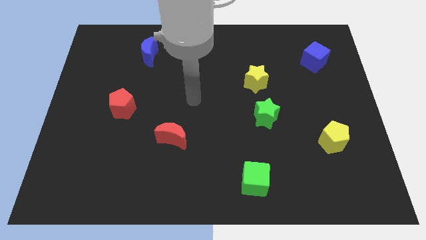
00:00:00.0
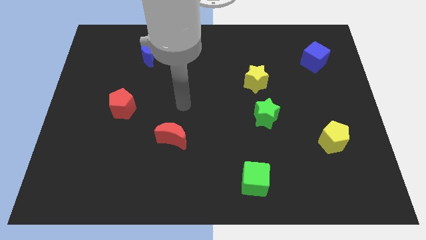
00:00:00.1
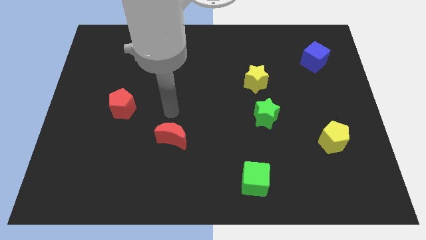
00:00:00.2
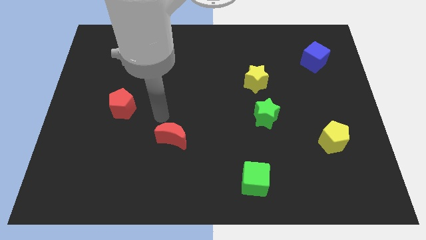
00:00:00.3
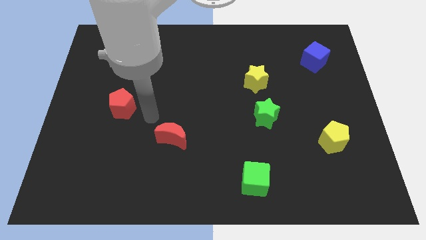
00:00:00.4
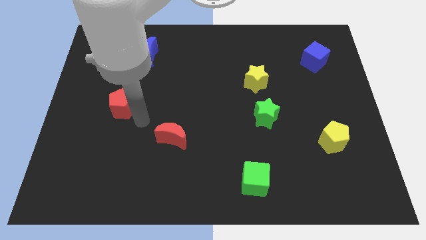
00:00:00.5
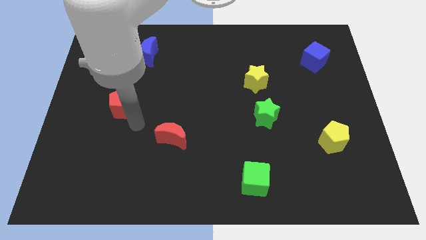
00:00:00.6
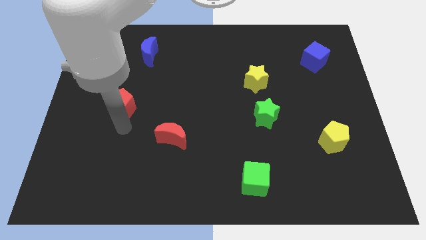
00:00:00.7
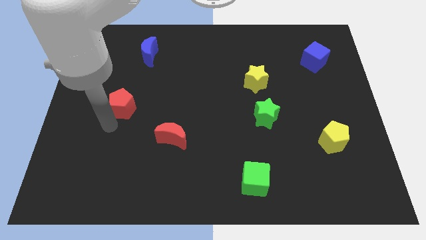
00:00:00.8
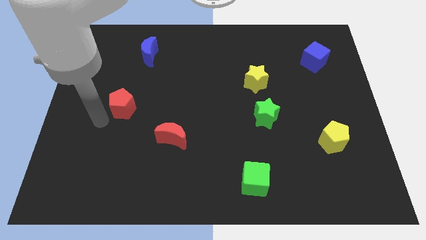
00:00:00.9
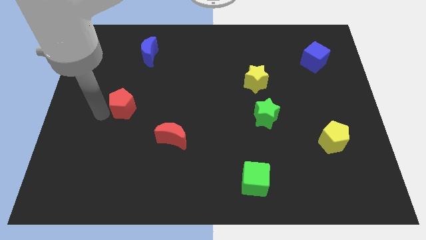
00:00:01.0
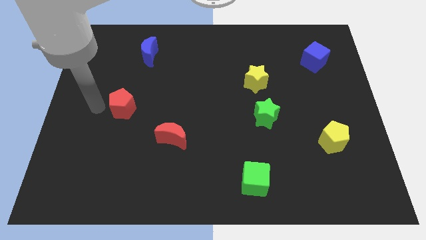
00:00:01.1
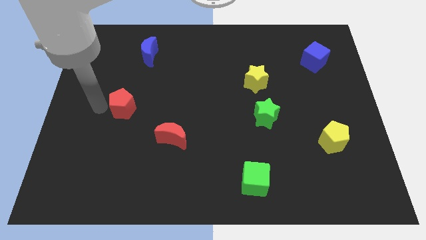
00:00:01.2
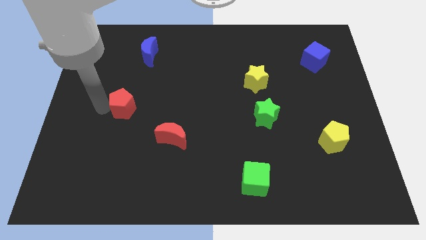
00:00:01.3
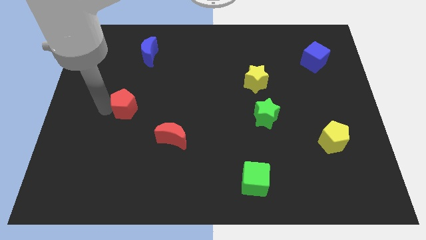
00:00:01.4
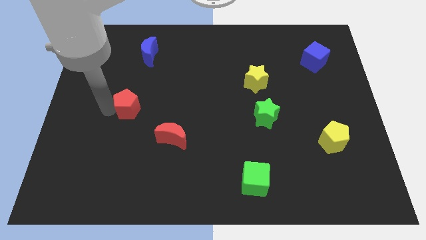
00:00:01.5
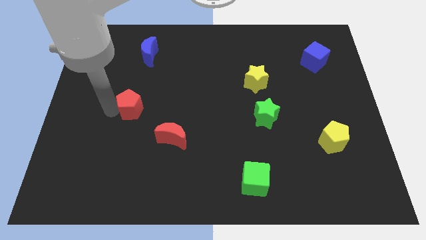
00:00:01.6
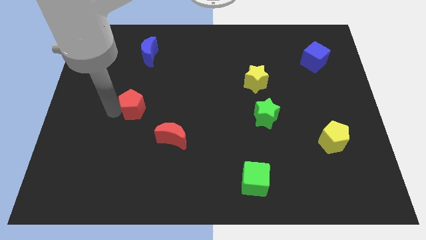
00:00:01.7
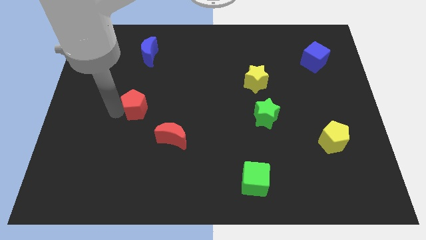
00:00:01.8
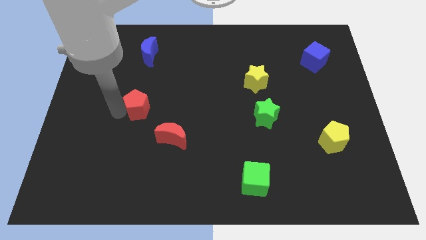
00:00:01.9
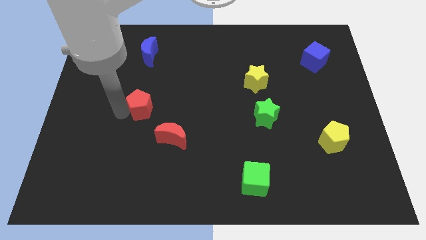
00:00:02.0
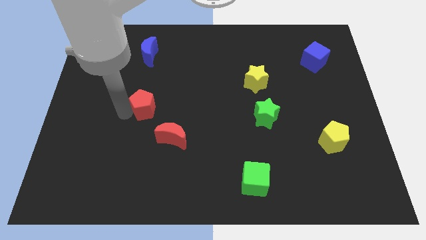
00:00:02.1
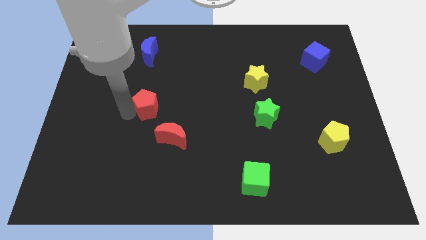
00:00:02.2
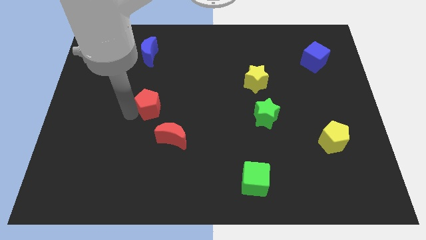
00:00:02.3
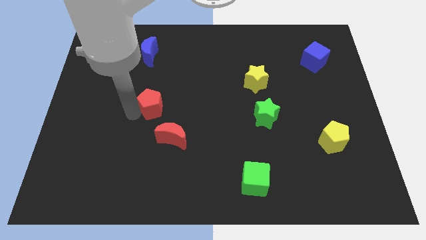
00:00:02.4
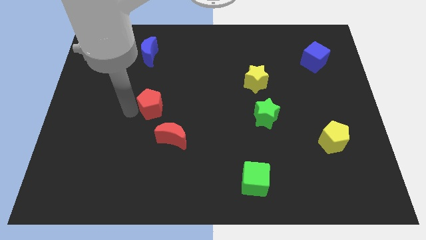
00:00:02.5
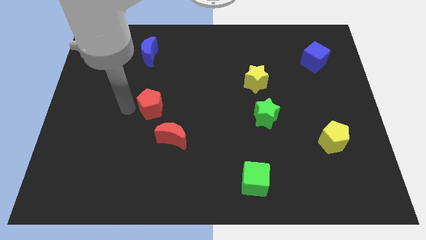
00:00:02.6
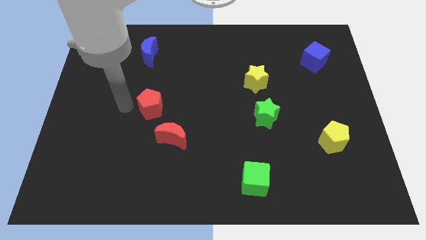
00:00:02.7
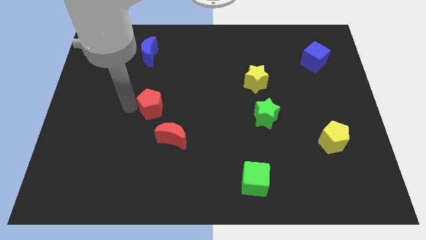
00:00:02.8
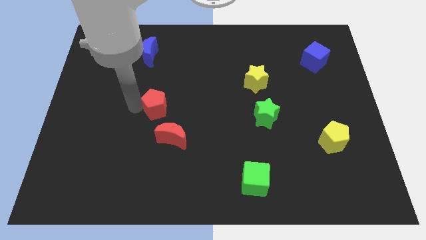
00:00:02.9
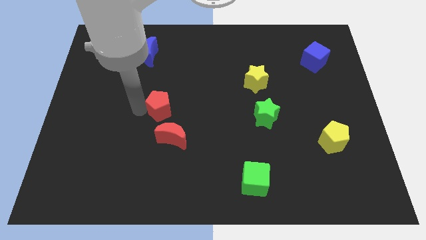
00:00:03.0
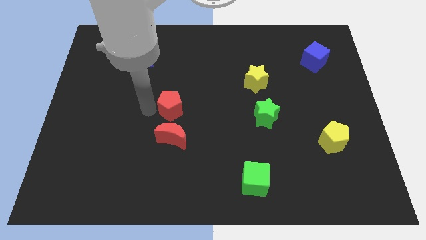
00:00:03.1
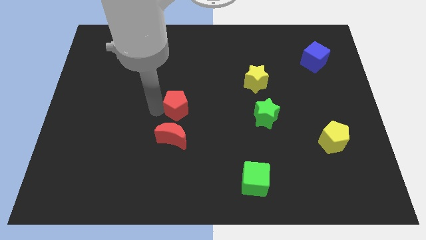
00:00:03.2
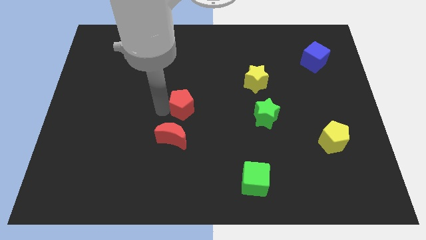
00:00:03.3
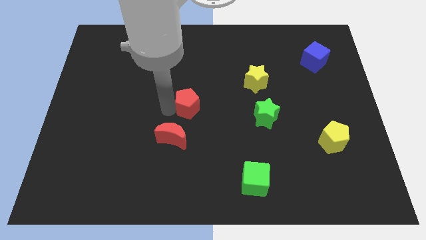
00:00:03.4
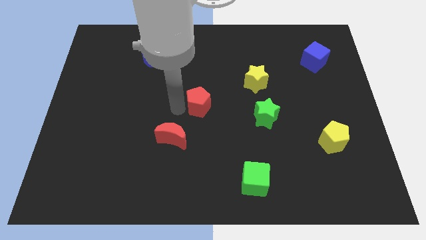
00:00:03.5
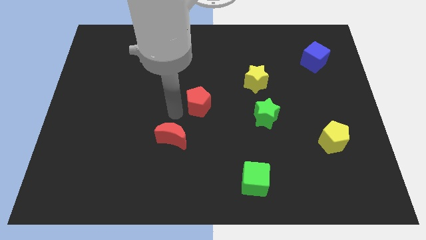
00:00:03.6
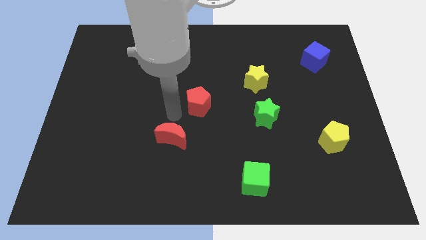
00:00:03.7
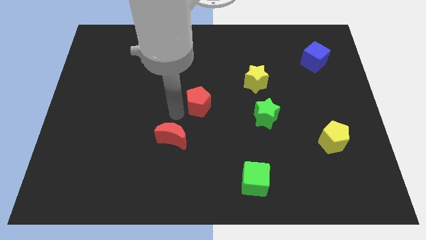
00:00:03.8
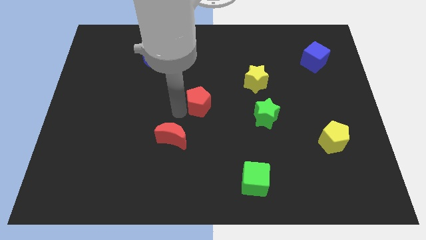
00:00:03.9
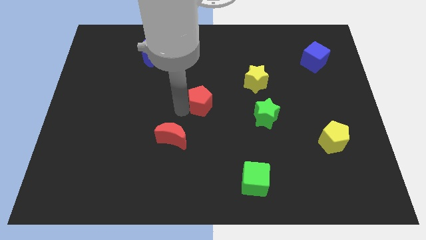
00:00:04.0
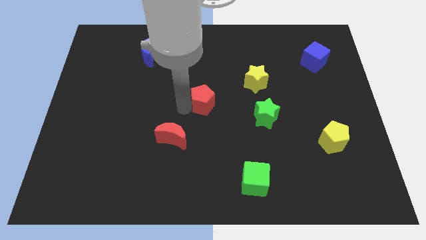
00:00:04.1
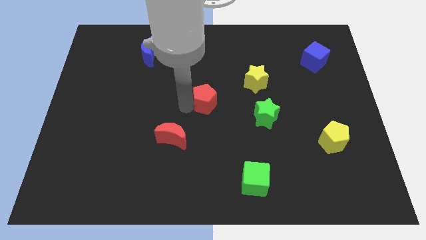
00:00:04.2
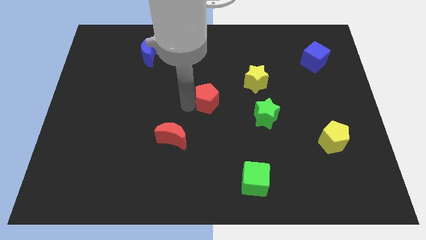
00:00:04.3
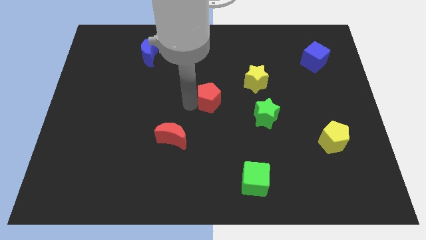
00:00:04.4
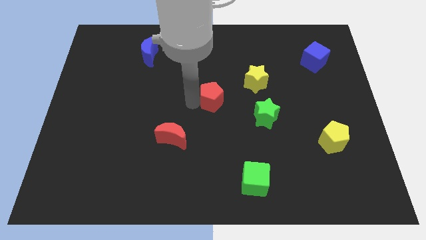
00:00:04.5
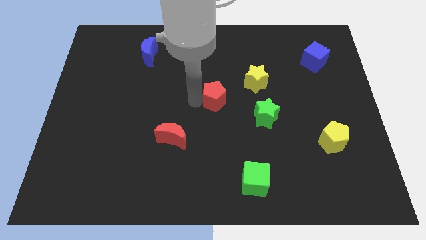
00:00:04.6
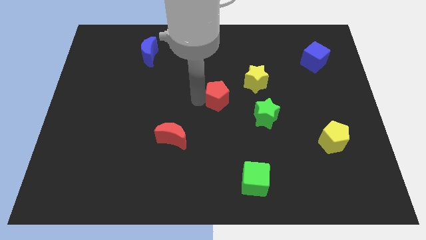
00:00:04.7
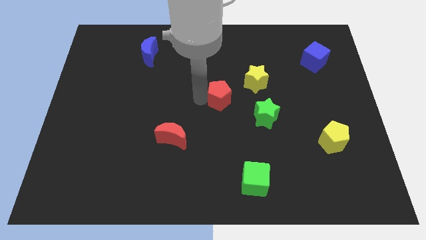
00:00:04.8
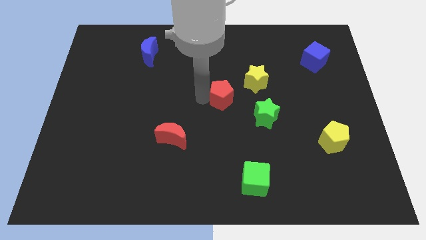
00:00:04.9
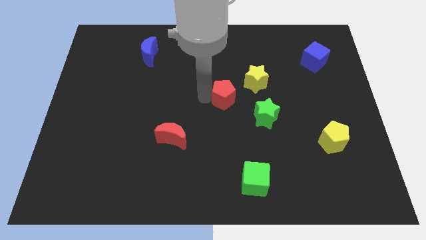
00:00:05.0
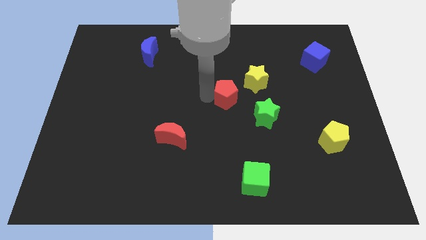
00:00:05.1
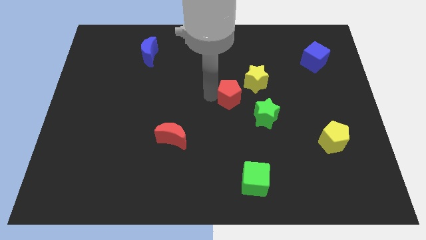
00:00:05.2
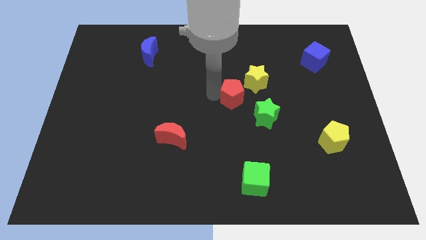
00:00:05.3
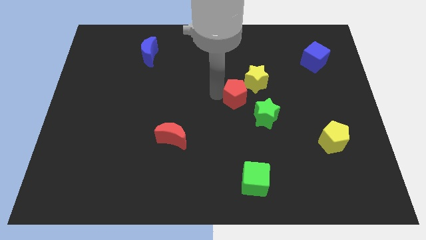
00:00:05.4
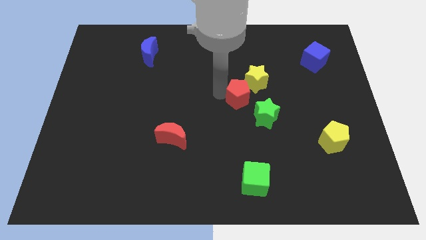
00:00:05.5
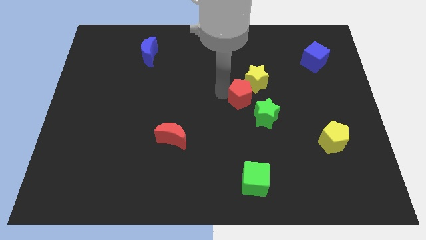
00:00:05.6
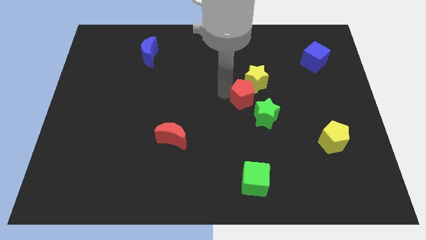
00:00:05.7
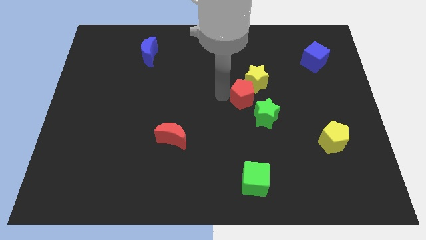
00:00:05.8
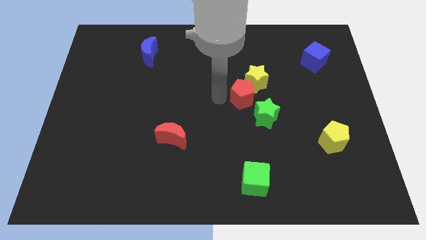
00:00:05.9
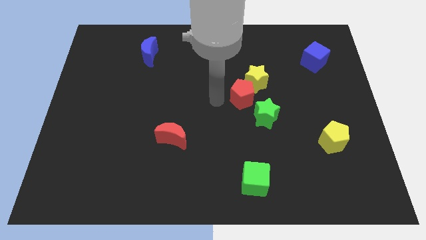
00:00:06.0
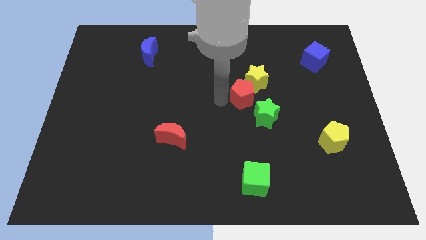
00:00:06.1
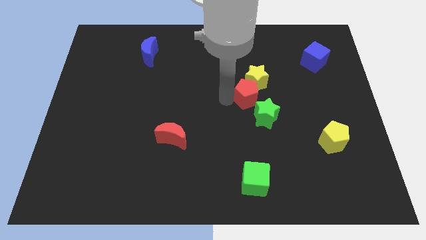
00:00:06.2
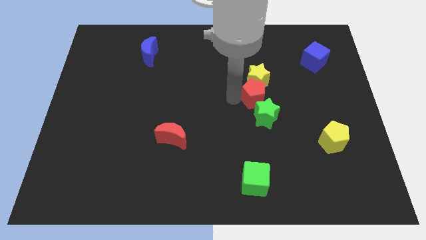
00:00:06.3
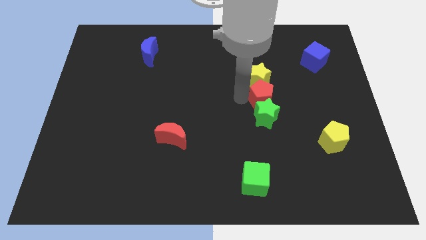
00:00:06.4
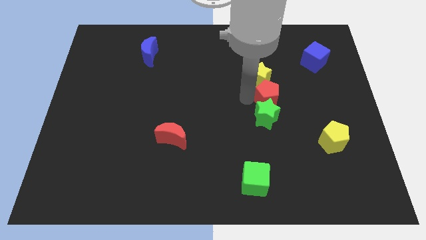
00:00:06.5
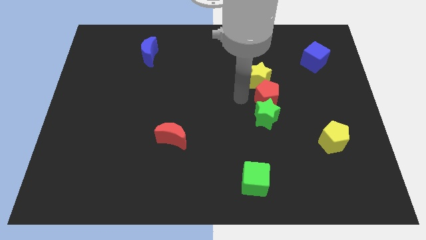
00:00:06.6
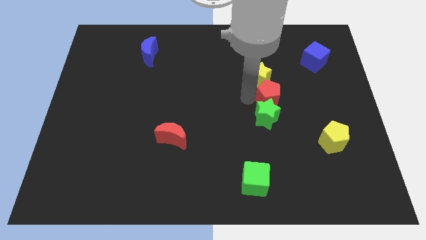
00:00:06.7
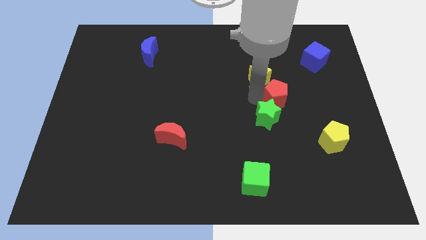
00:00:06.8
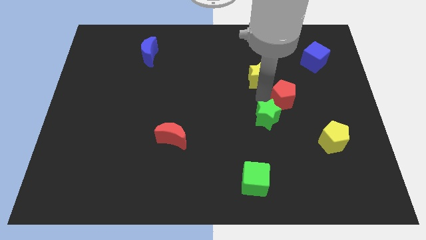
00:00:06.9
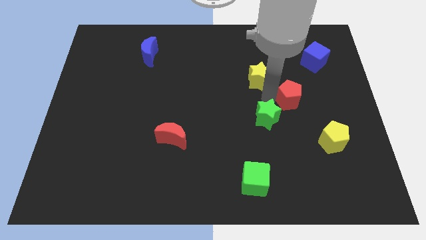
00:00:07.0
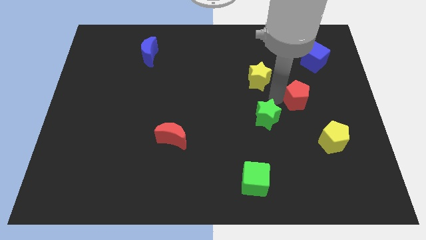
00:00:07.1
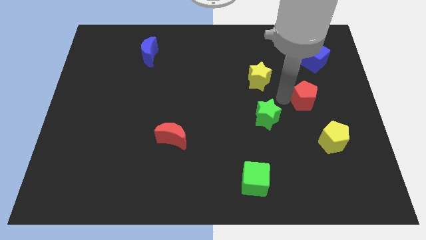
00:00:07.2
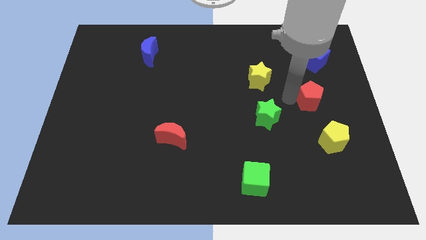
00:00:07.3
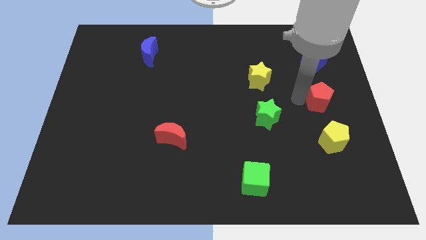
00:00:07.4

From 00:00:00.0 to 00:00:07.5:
put the red pentagon to the right side of the board

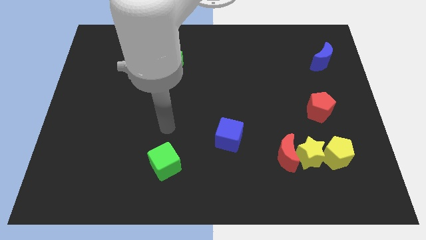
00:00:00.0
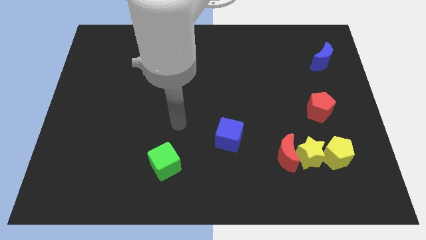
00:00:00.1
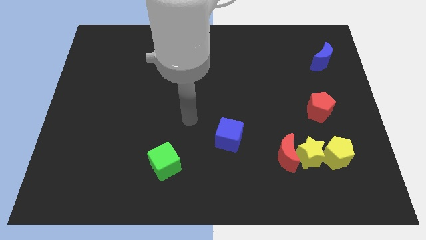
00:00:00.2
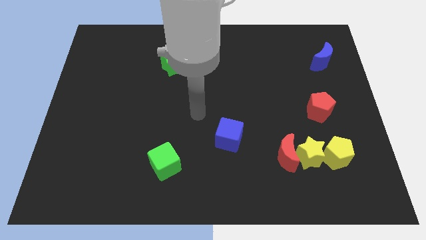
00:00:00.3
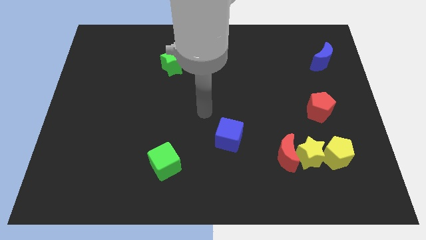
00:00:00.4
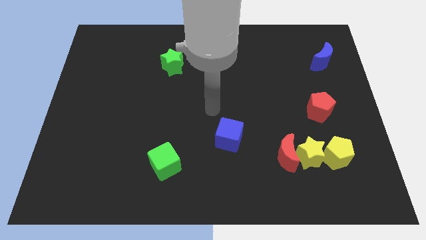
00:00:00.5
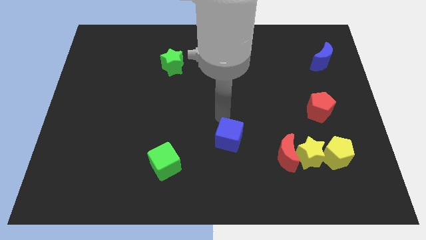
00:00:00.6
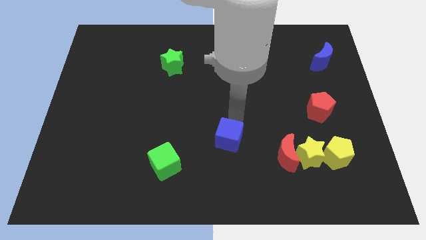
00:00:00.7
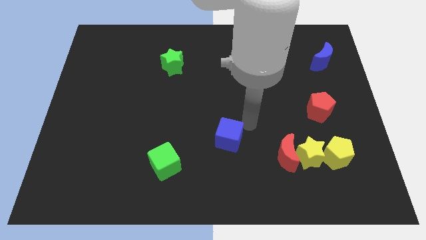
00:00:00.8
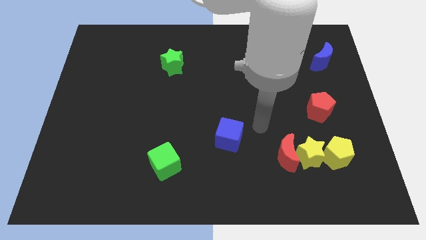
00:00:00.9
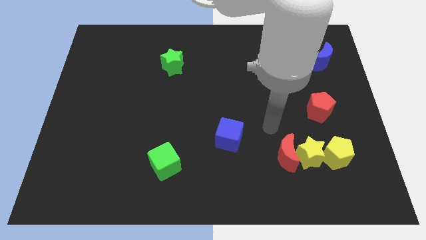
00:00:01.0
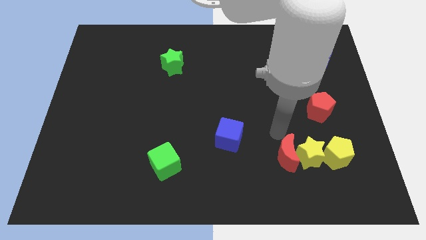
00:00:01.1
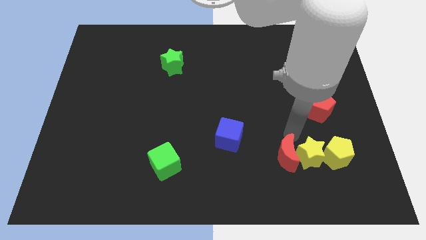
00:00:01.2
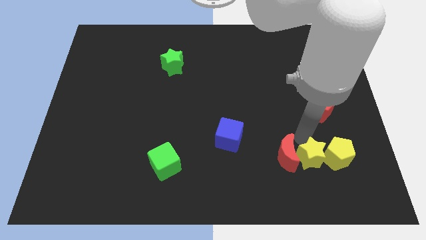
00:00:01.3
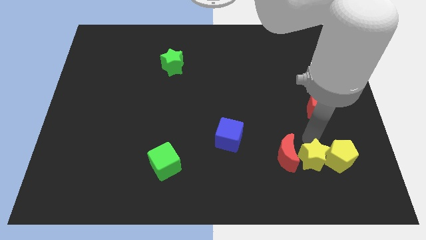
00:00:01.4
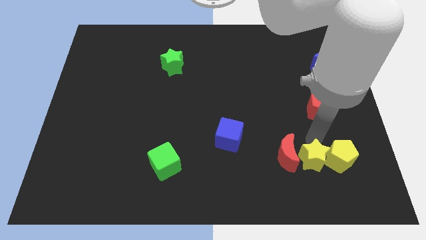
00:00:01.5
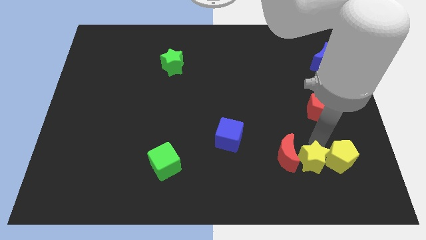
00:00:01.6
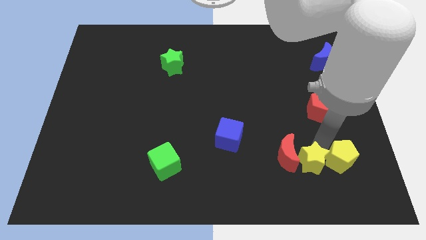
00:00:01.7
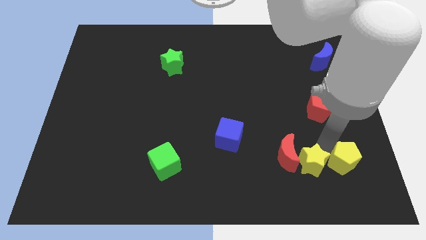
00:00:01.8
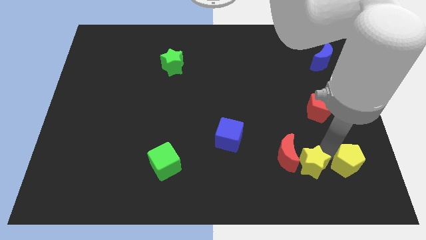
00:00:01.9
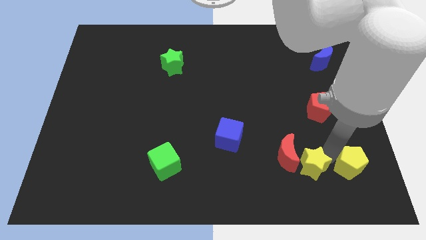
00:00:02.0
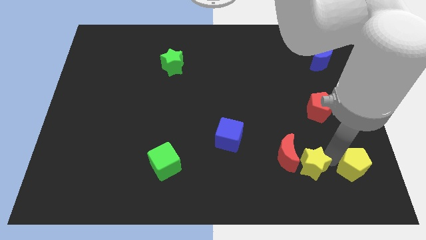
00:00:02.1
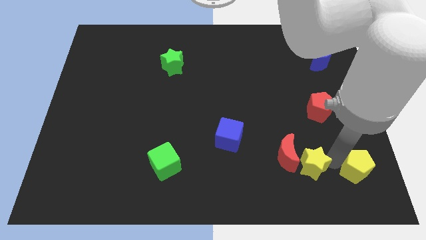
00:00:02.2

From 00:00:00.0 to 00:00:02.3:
slide the yellow pentagon to the lower right corner
